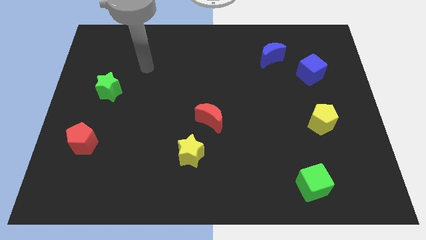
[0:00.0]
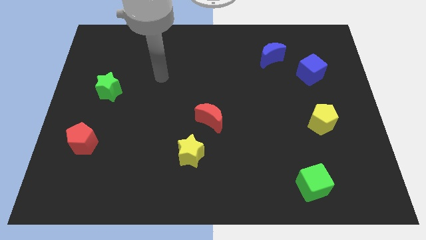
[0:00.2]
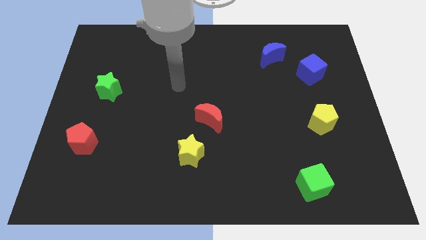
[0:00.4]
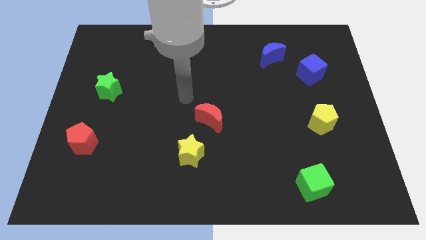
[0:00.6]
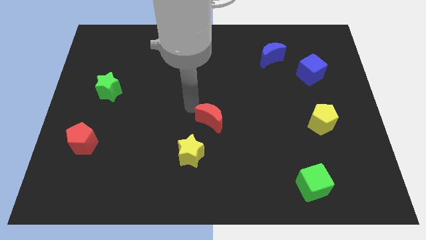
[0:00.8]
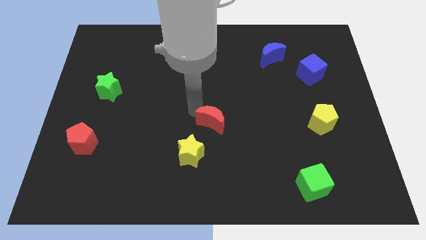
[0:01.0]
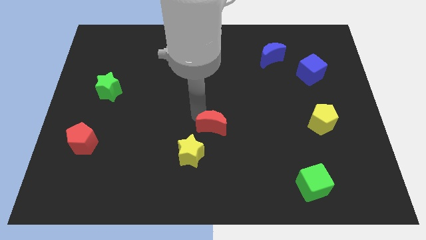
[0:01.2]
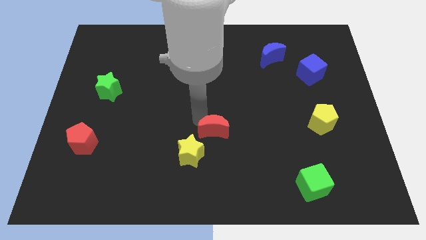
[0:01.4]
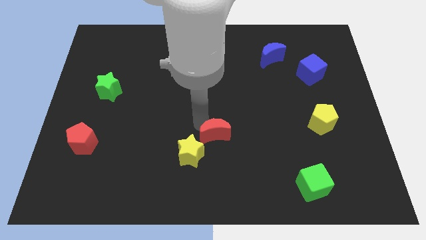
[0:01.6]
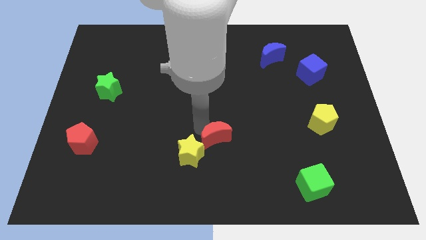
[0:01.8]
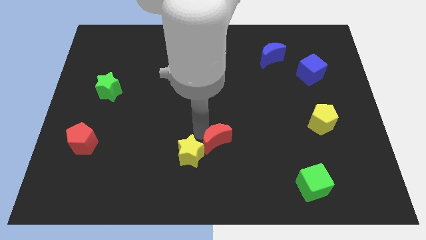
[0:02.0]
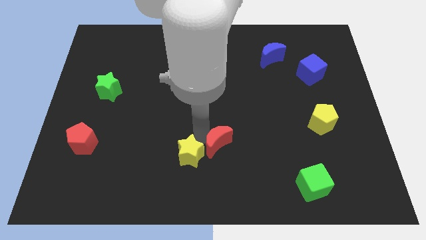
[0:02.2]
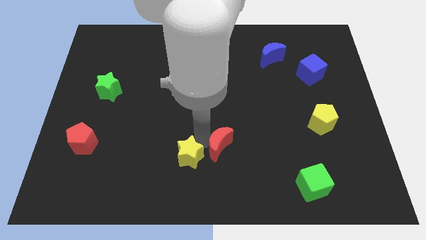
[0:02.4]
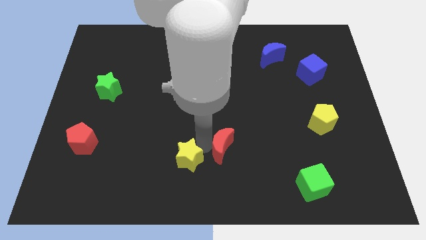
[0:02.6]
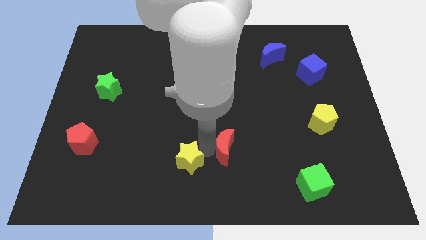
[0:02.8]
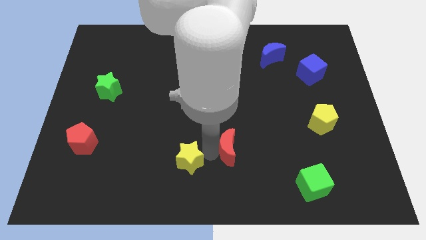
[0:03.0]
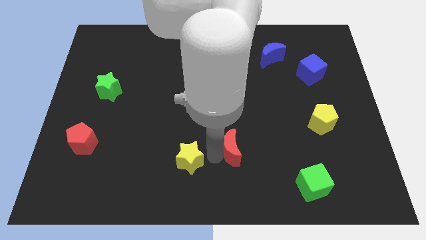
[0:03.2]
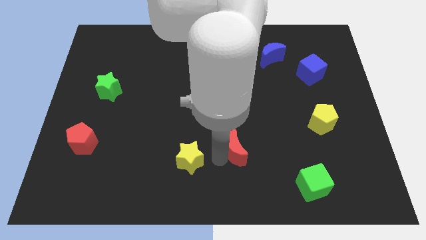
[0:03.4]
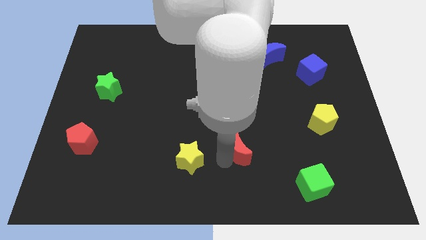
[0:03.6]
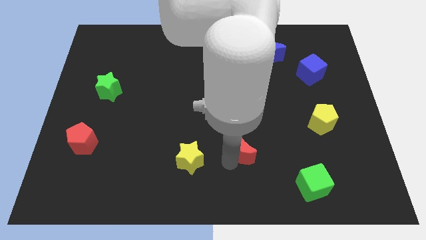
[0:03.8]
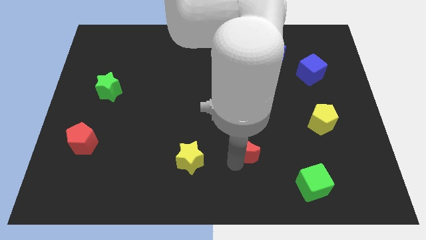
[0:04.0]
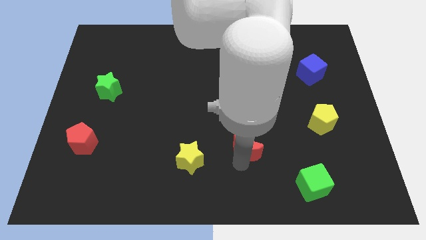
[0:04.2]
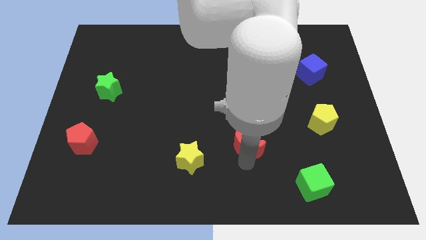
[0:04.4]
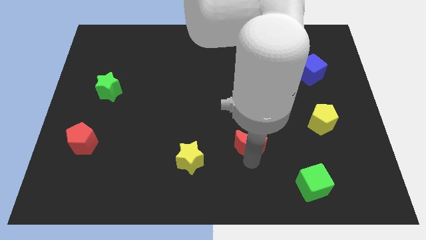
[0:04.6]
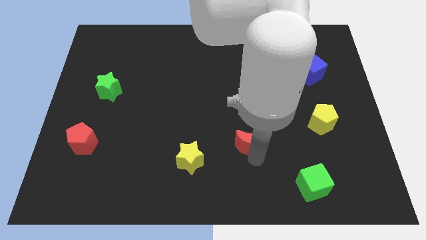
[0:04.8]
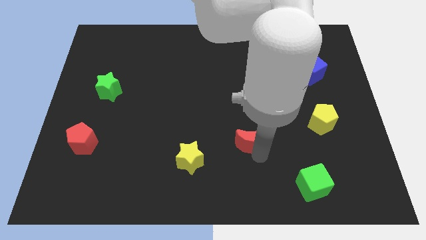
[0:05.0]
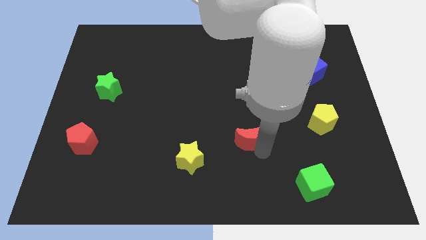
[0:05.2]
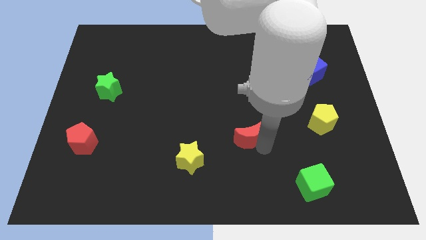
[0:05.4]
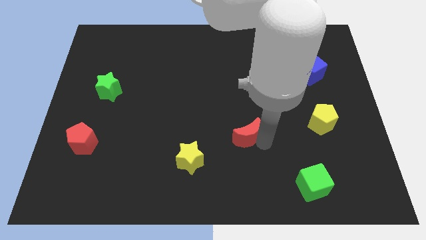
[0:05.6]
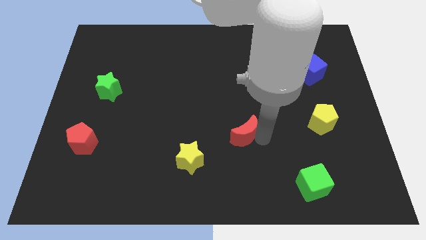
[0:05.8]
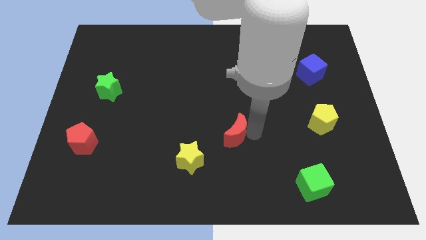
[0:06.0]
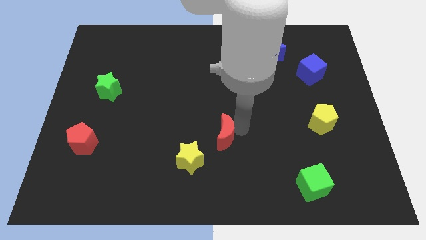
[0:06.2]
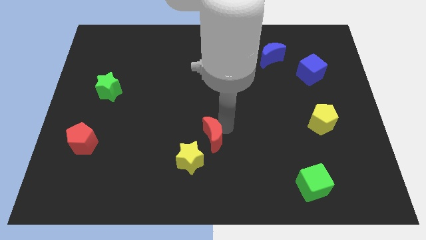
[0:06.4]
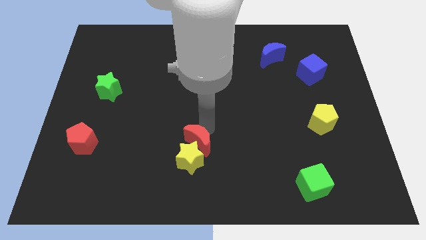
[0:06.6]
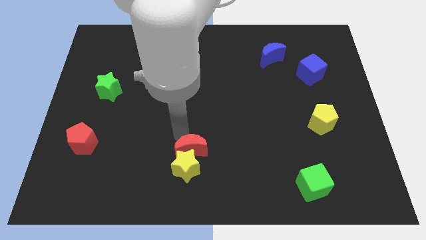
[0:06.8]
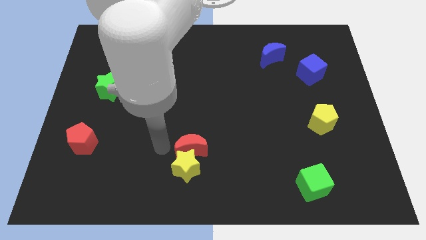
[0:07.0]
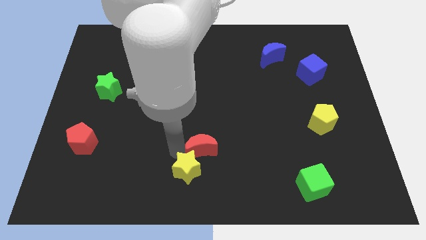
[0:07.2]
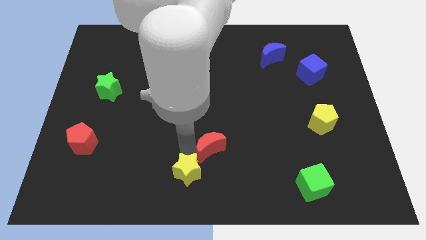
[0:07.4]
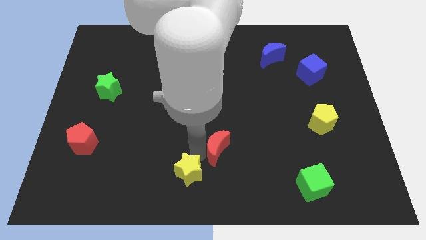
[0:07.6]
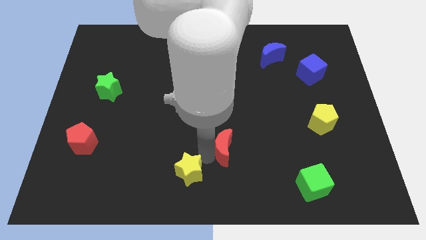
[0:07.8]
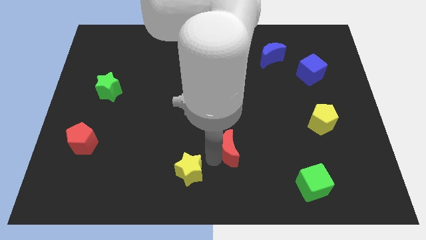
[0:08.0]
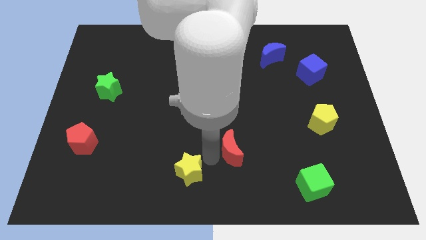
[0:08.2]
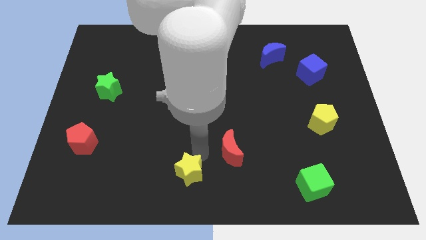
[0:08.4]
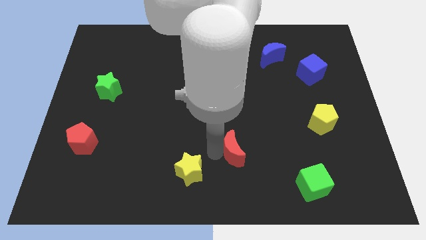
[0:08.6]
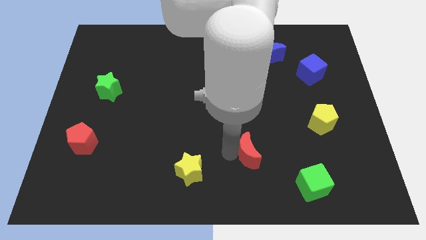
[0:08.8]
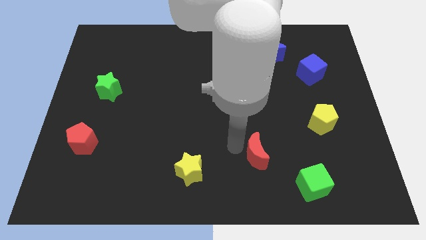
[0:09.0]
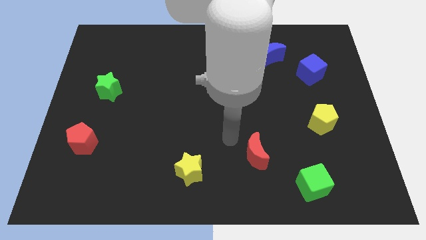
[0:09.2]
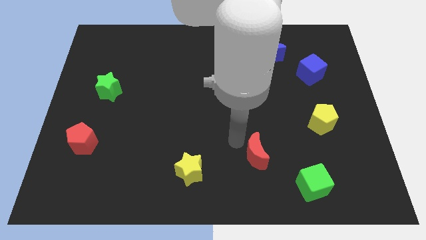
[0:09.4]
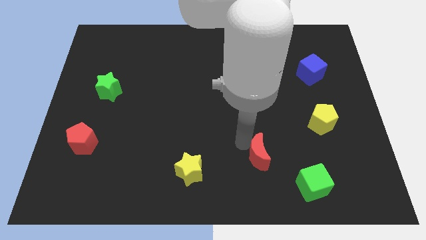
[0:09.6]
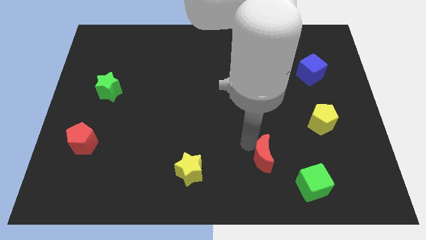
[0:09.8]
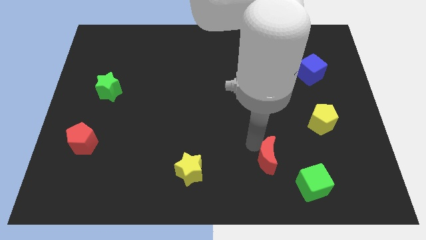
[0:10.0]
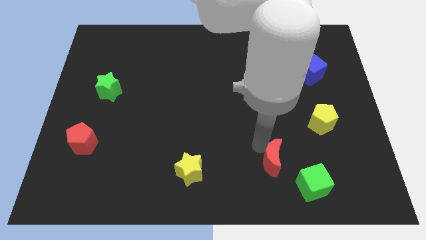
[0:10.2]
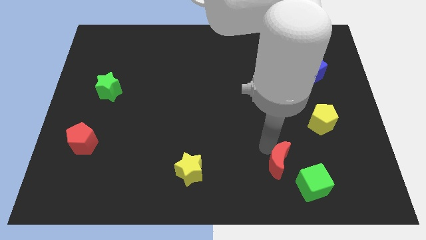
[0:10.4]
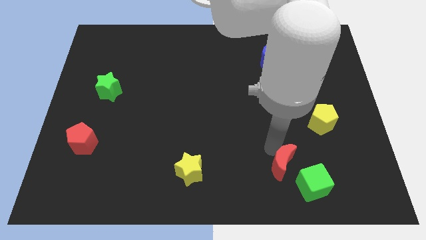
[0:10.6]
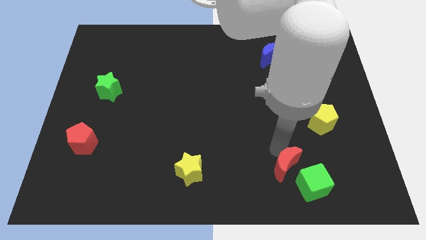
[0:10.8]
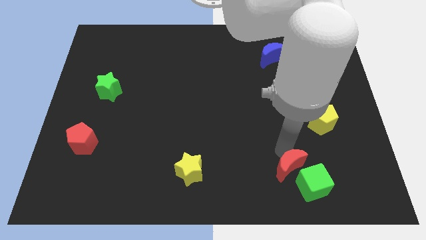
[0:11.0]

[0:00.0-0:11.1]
put the red moon to the green cube

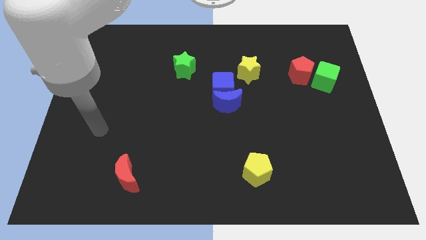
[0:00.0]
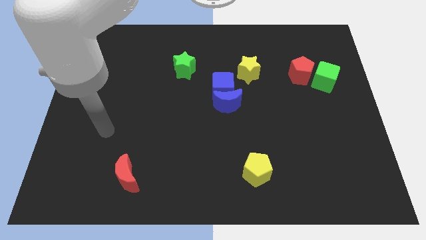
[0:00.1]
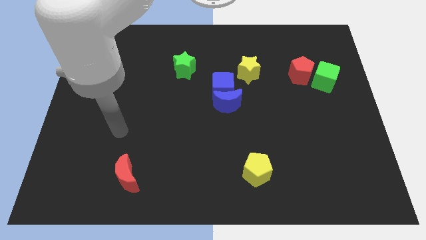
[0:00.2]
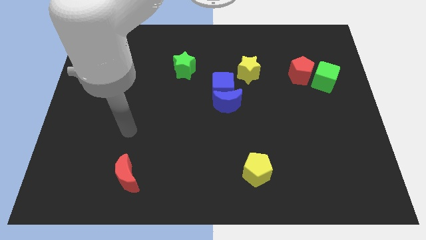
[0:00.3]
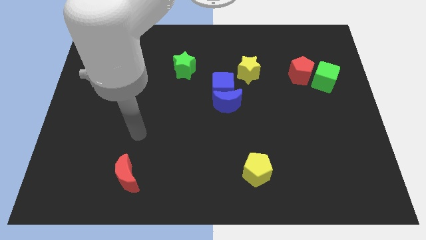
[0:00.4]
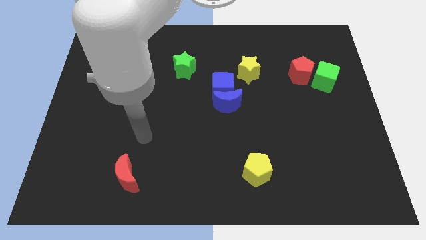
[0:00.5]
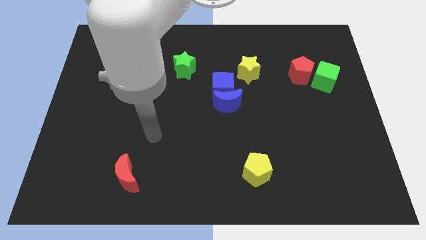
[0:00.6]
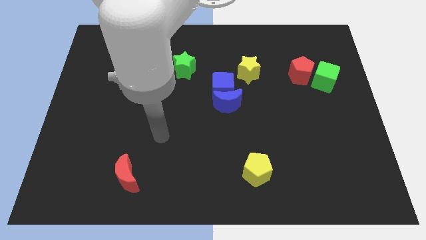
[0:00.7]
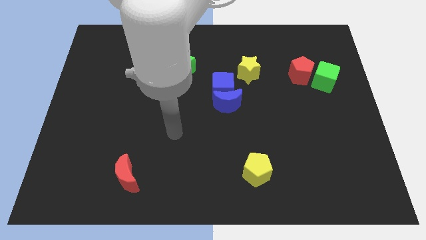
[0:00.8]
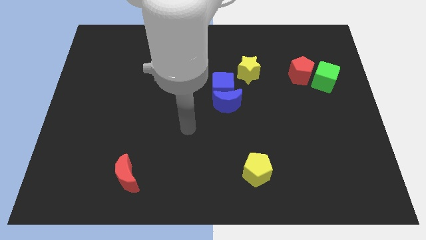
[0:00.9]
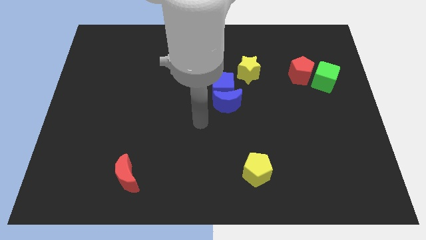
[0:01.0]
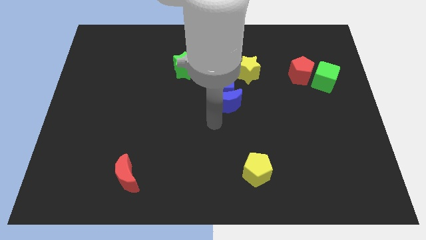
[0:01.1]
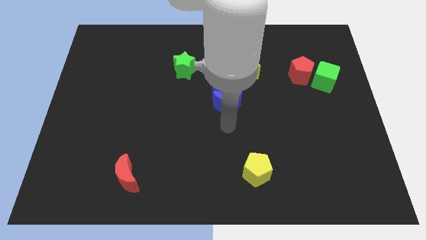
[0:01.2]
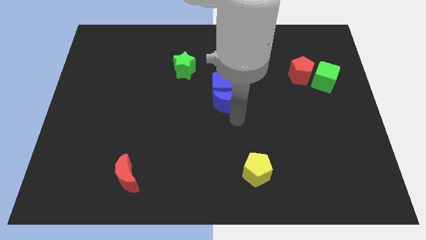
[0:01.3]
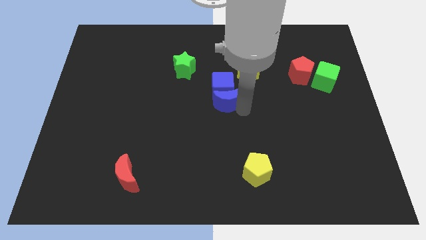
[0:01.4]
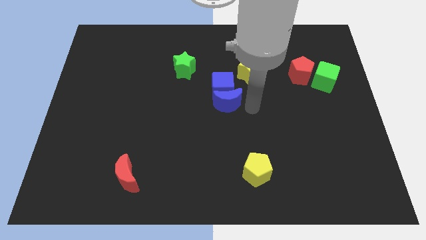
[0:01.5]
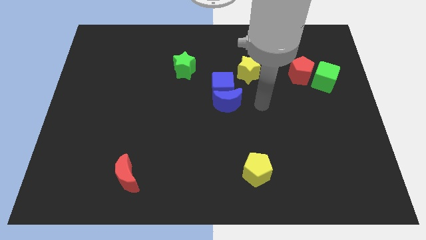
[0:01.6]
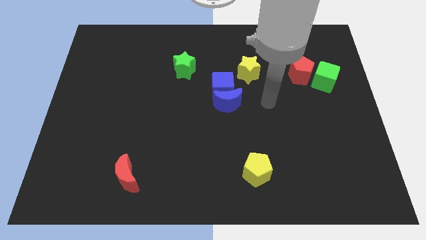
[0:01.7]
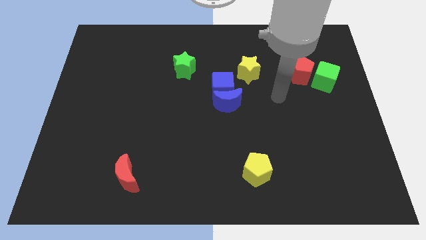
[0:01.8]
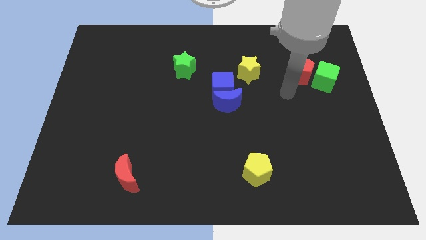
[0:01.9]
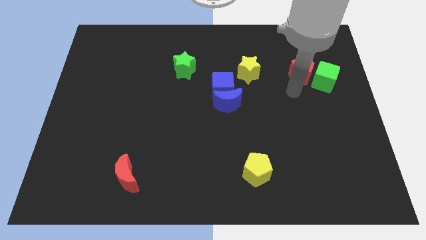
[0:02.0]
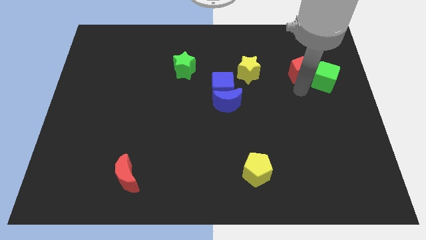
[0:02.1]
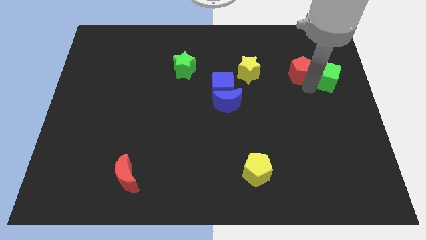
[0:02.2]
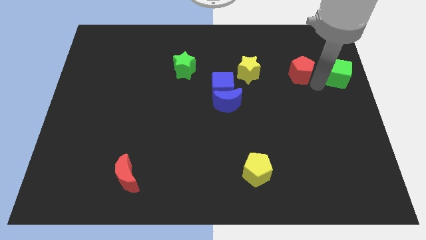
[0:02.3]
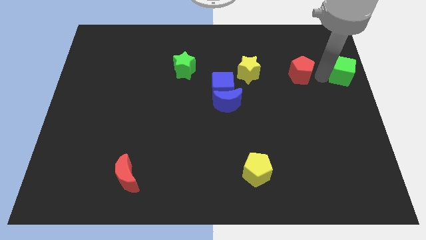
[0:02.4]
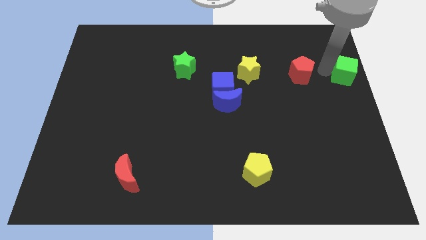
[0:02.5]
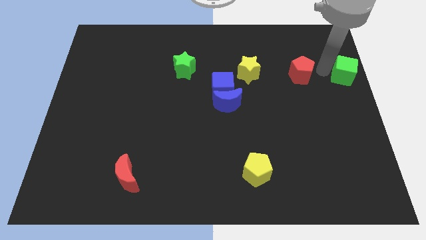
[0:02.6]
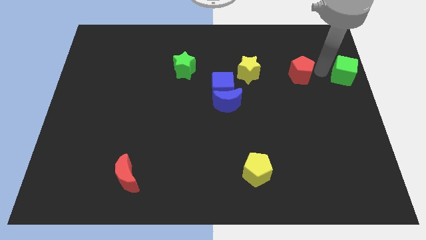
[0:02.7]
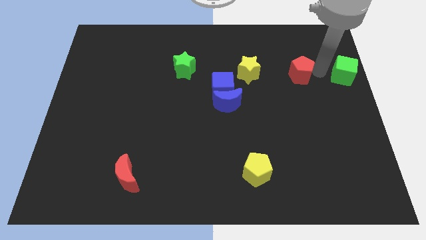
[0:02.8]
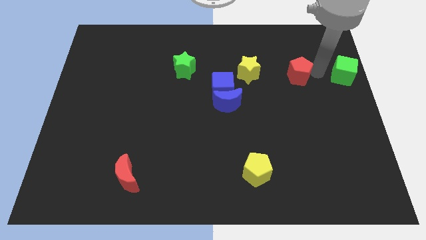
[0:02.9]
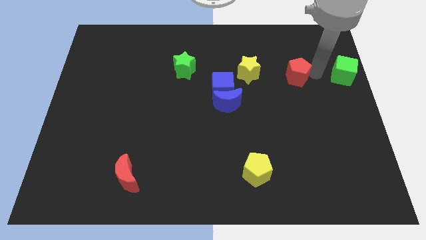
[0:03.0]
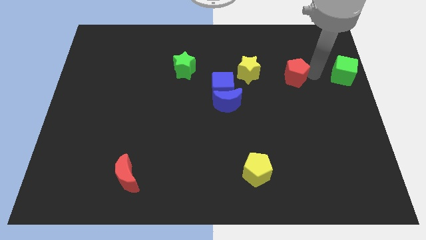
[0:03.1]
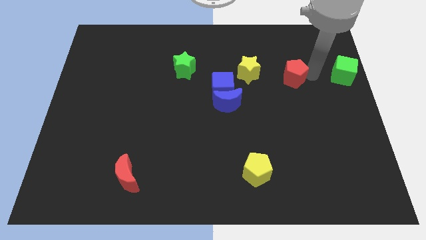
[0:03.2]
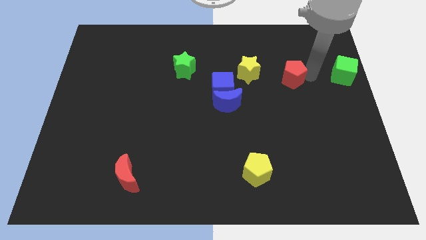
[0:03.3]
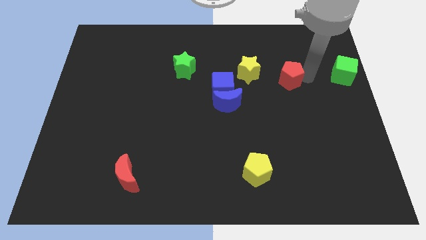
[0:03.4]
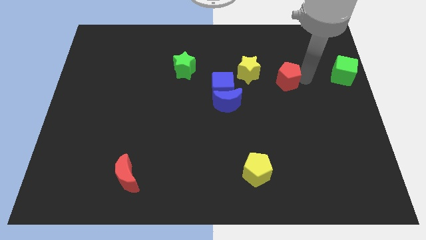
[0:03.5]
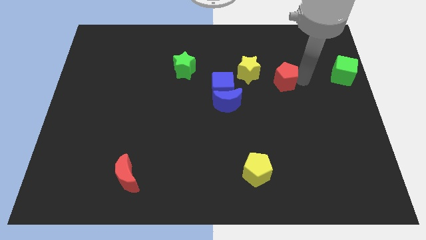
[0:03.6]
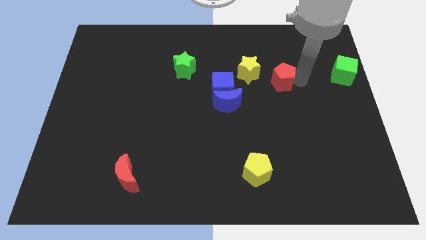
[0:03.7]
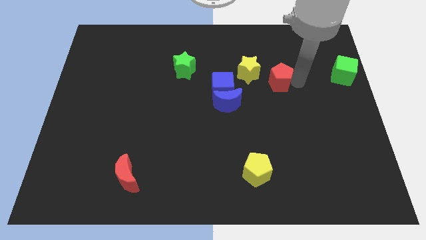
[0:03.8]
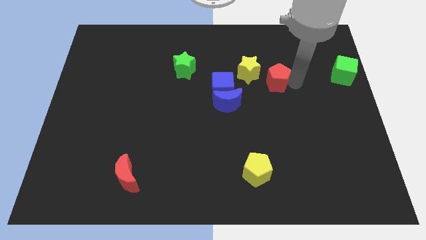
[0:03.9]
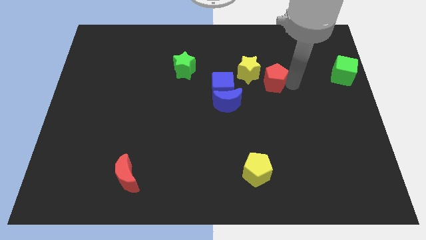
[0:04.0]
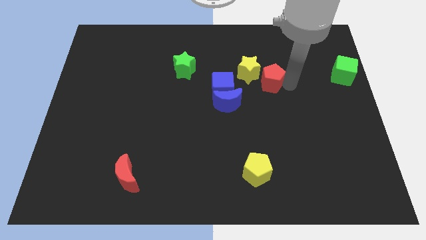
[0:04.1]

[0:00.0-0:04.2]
push the red pentagon towards the yellow star
